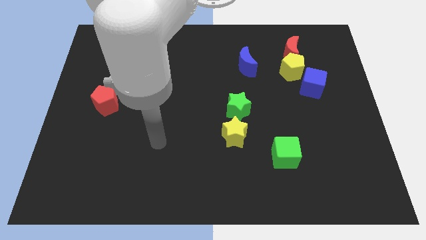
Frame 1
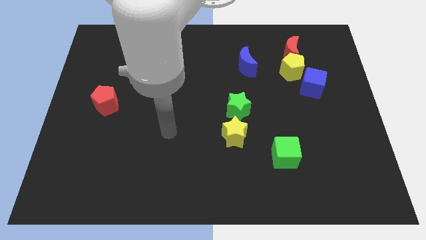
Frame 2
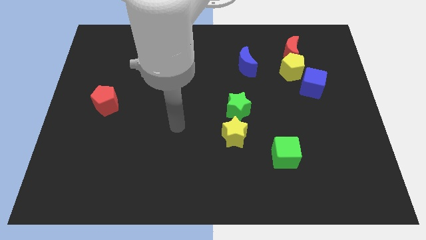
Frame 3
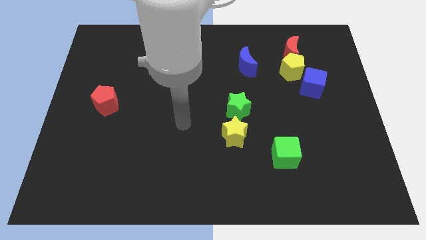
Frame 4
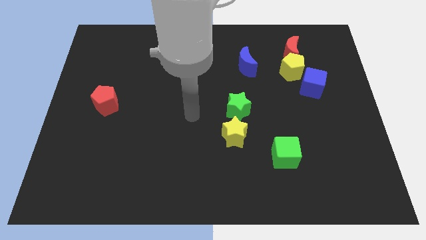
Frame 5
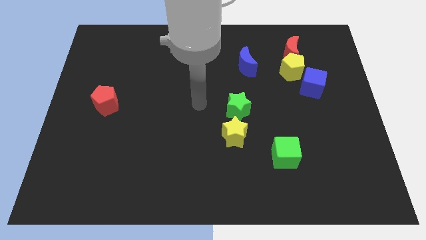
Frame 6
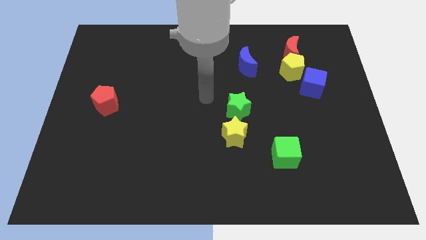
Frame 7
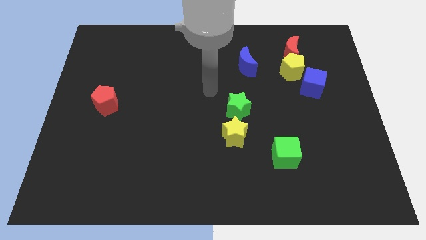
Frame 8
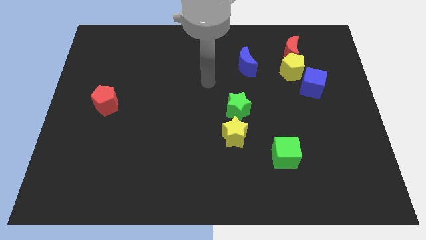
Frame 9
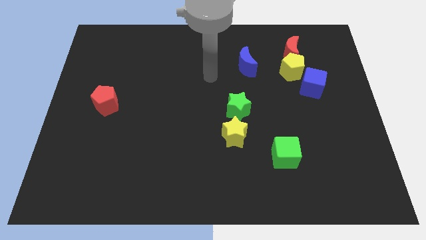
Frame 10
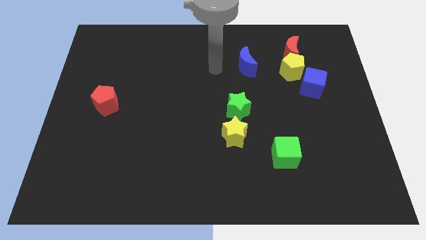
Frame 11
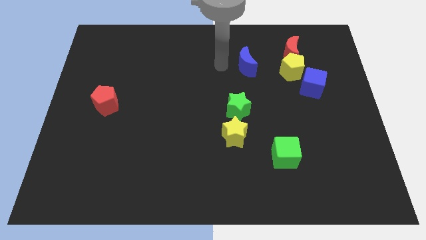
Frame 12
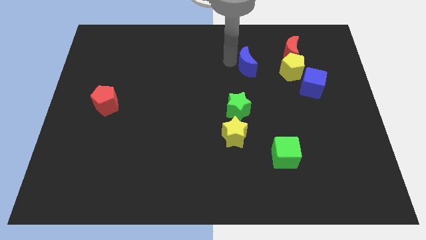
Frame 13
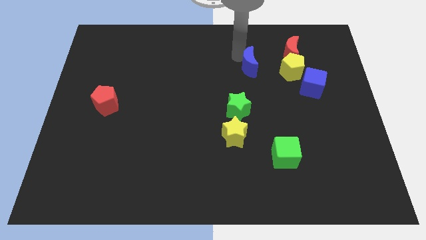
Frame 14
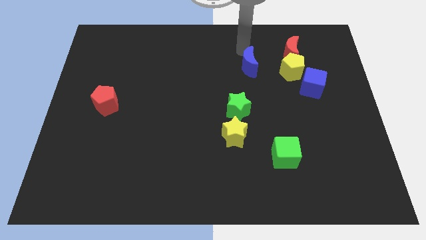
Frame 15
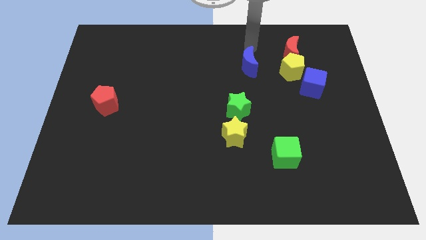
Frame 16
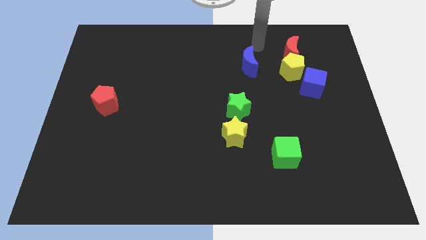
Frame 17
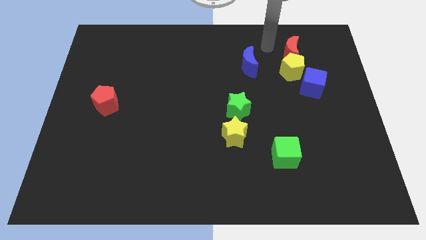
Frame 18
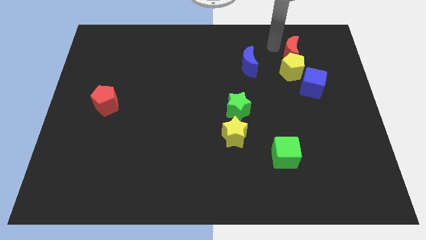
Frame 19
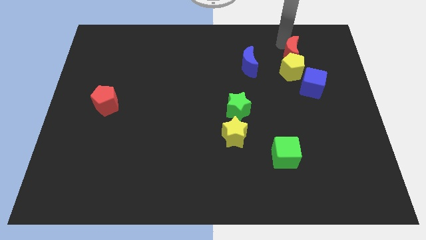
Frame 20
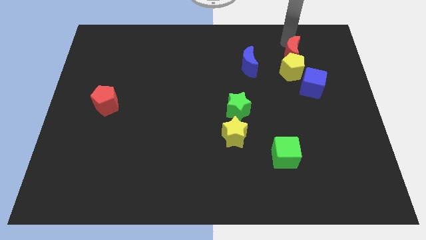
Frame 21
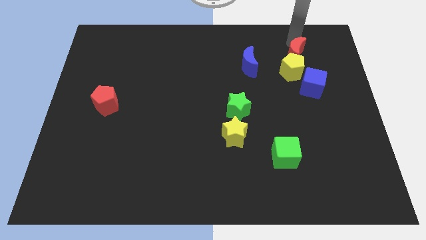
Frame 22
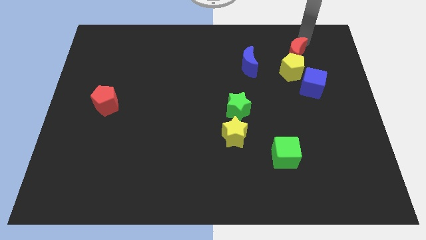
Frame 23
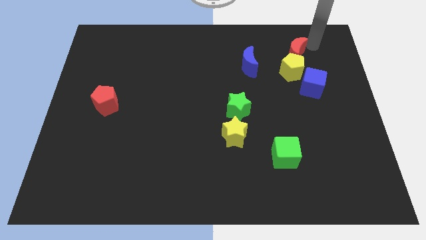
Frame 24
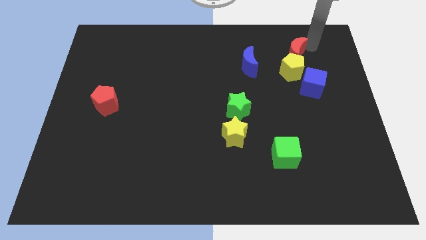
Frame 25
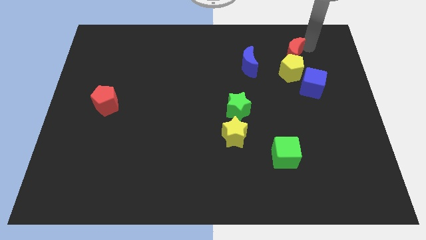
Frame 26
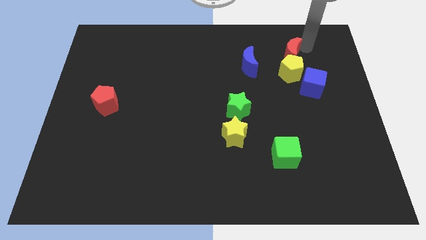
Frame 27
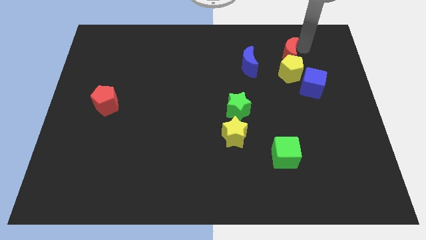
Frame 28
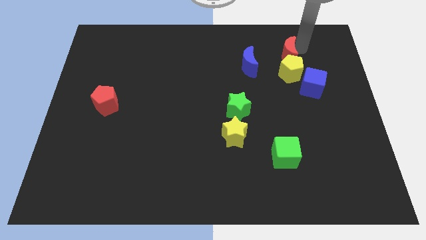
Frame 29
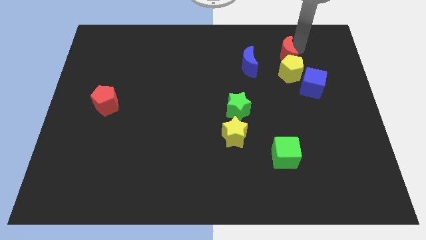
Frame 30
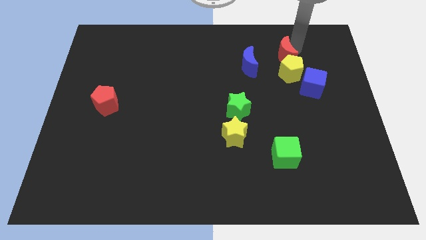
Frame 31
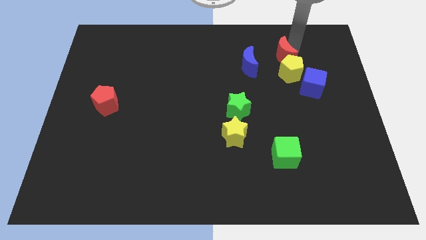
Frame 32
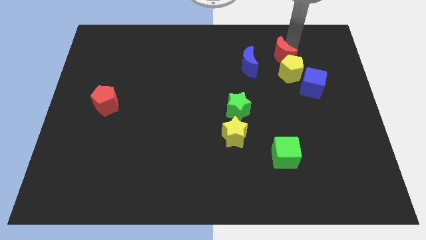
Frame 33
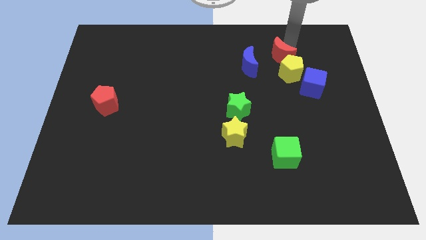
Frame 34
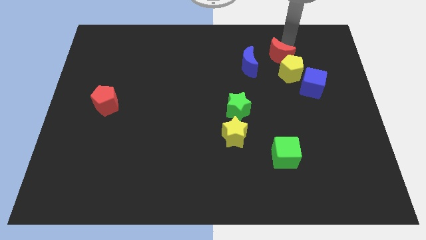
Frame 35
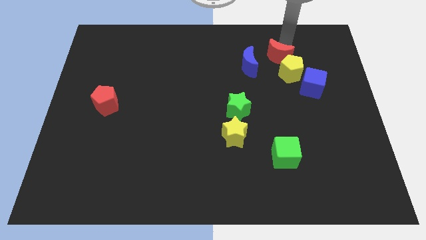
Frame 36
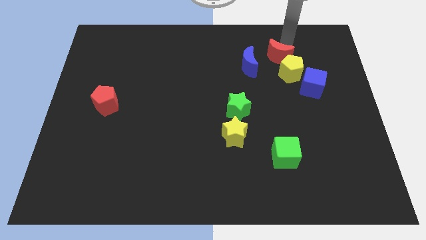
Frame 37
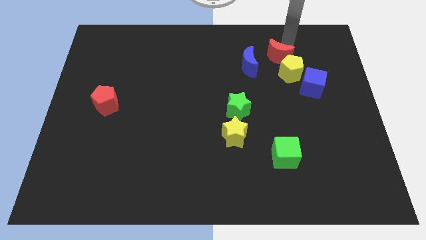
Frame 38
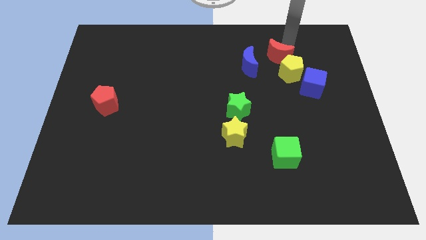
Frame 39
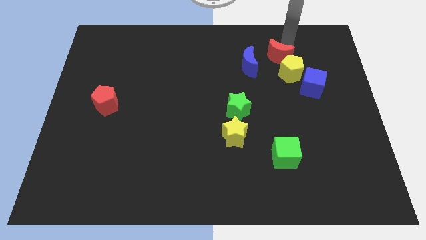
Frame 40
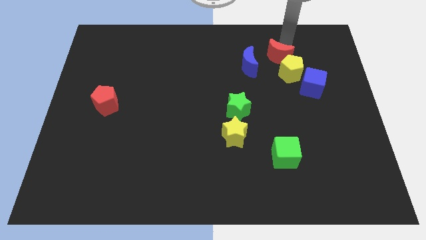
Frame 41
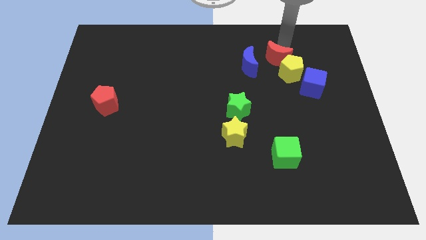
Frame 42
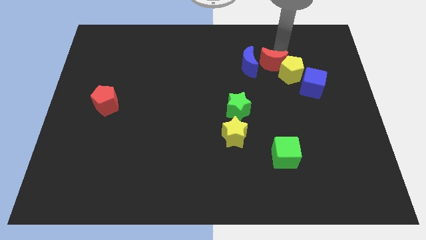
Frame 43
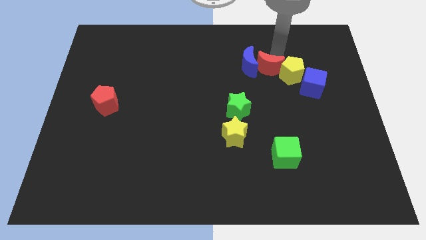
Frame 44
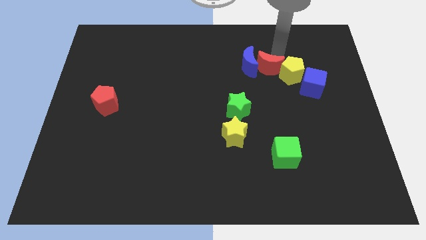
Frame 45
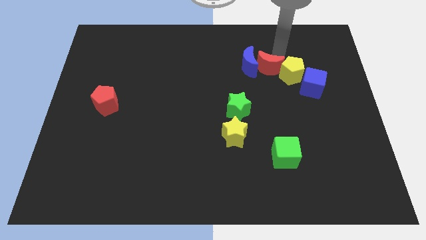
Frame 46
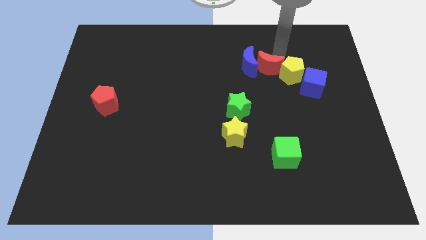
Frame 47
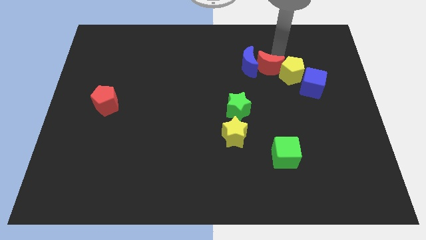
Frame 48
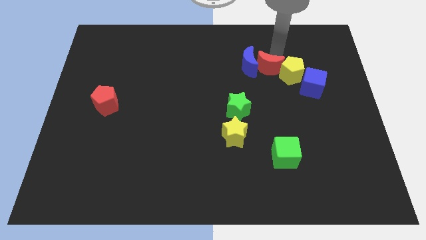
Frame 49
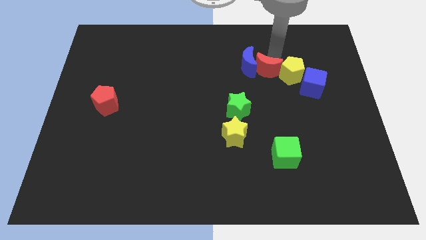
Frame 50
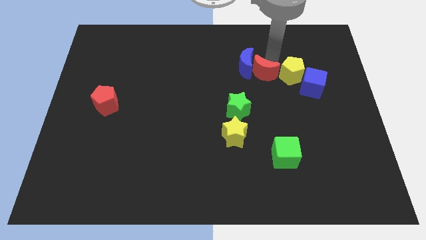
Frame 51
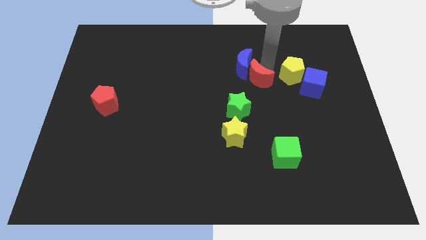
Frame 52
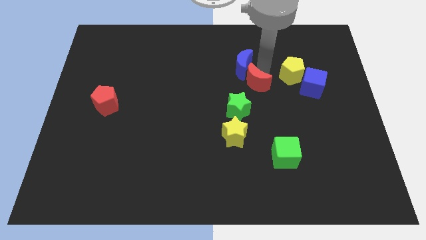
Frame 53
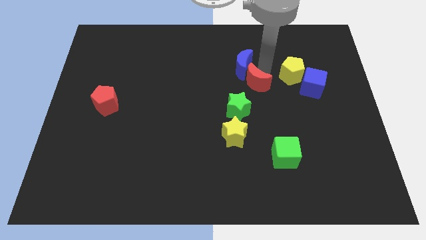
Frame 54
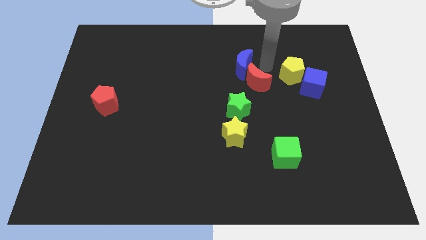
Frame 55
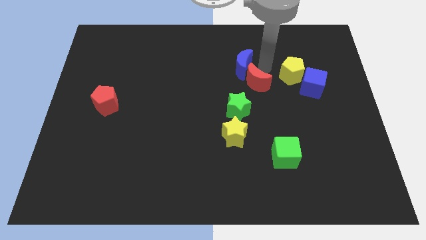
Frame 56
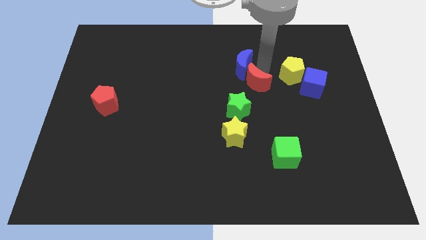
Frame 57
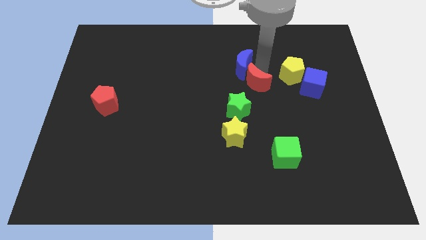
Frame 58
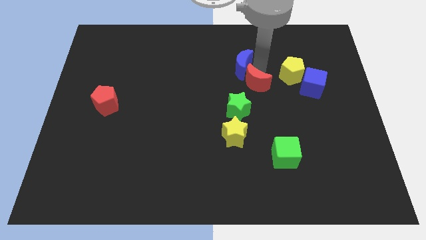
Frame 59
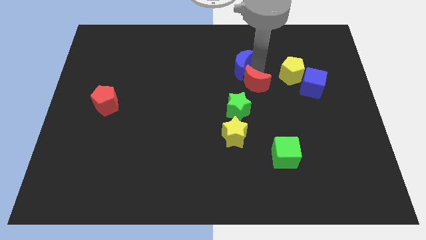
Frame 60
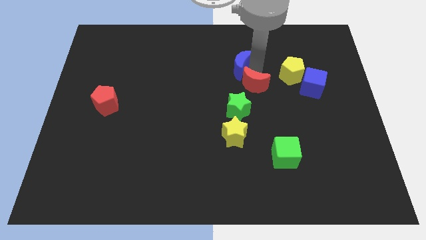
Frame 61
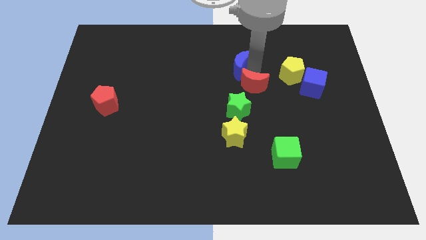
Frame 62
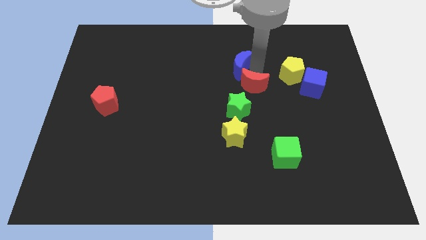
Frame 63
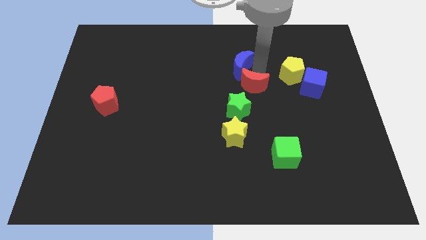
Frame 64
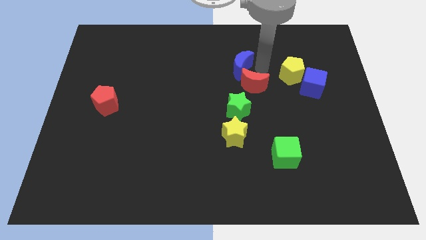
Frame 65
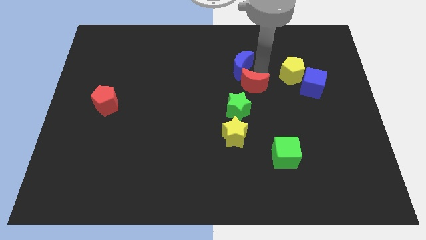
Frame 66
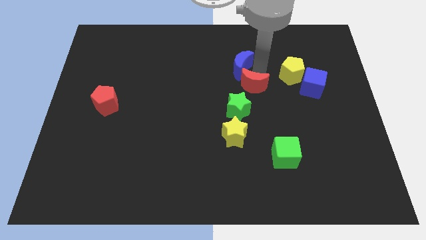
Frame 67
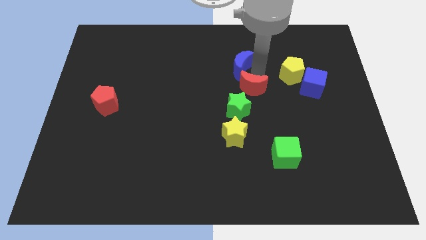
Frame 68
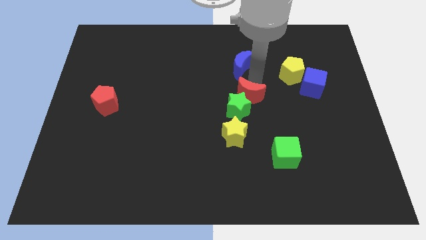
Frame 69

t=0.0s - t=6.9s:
move the red moon close to the green star

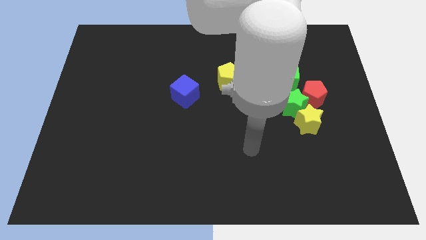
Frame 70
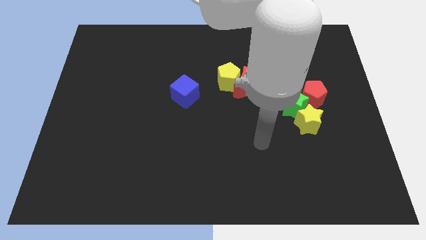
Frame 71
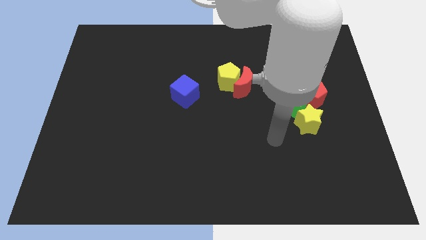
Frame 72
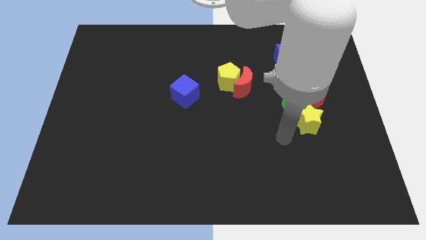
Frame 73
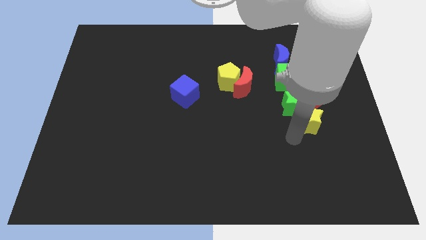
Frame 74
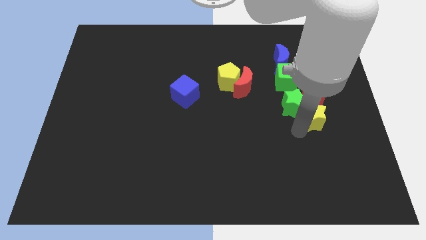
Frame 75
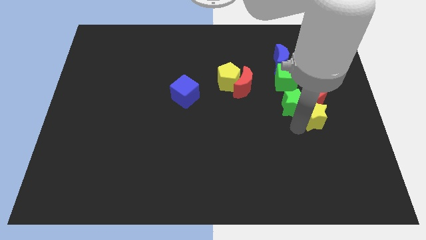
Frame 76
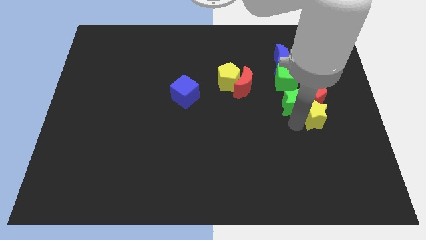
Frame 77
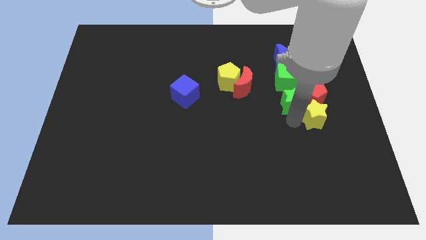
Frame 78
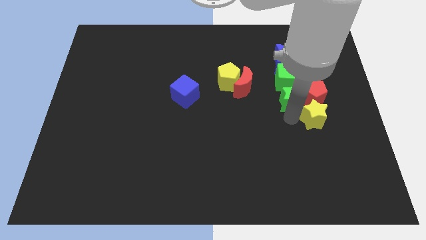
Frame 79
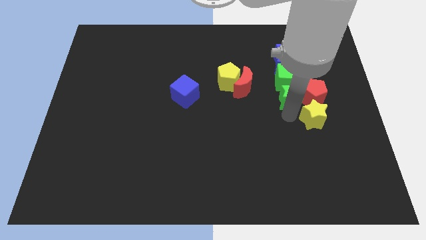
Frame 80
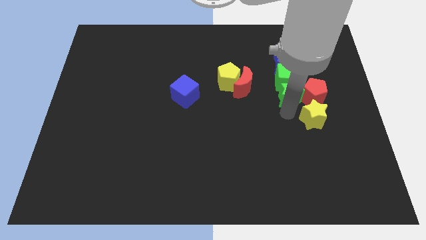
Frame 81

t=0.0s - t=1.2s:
put the green star to the green cube

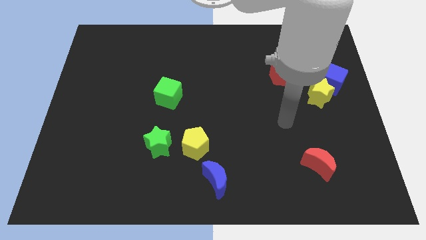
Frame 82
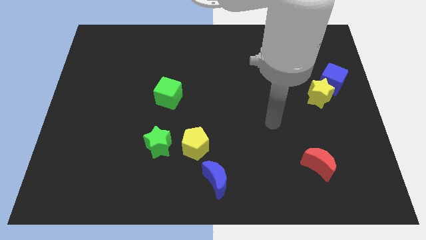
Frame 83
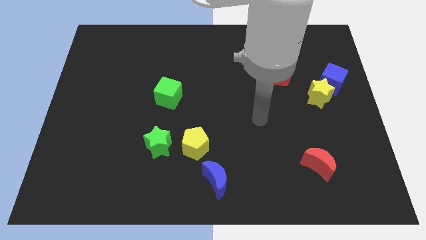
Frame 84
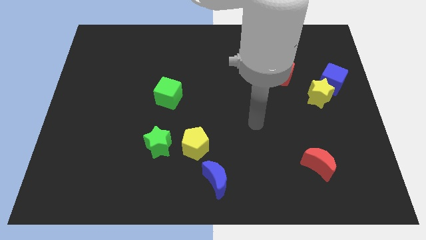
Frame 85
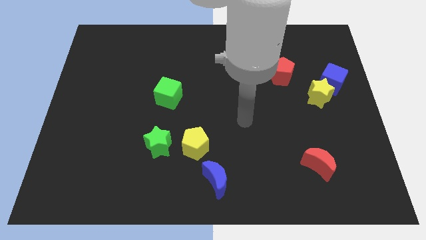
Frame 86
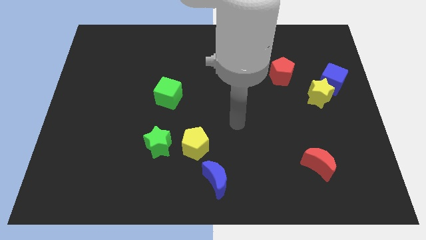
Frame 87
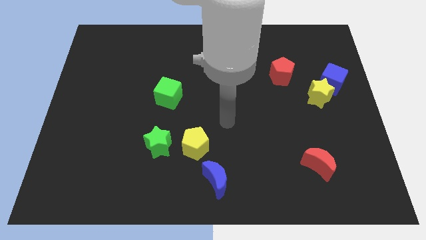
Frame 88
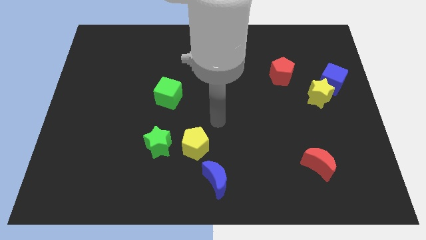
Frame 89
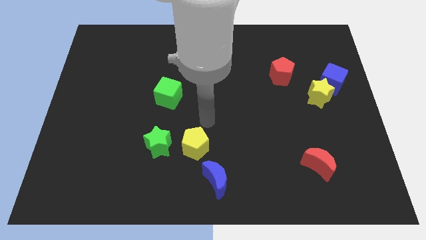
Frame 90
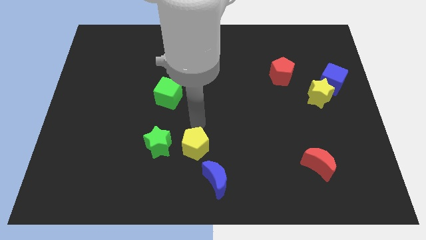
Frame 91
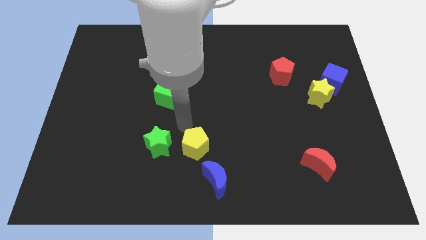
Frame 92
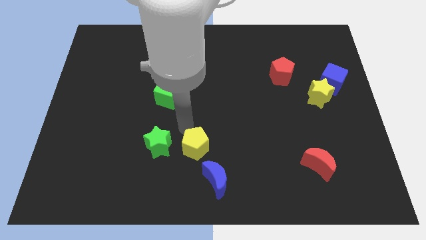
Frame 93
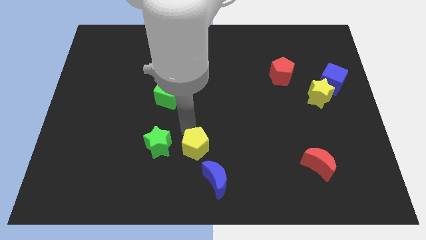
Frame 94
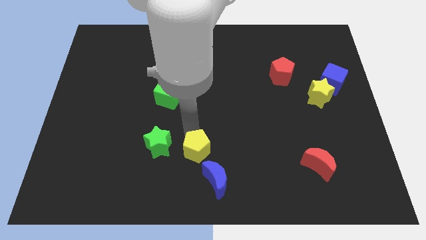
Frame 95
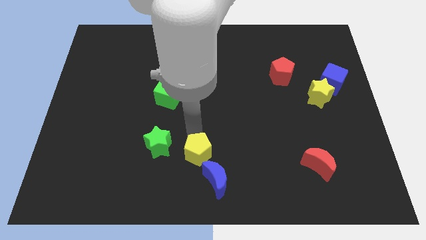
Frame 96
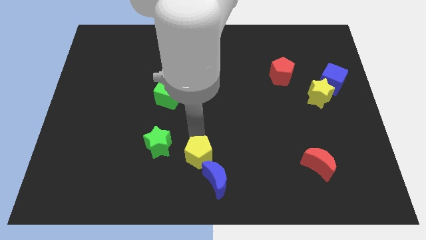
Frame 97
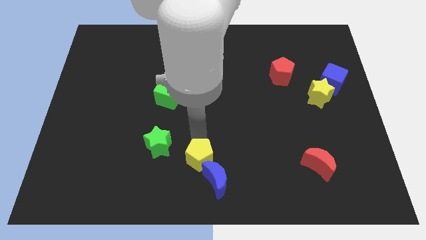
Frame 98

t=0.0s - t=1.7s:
slide the yellow pentagon next to the blue moon
